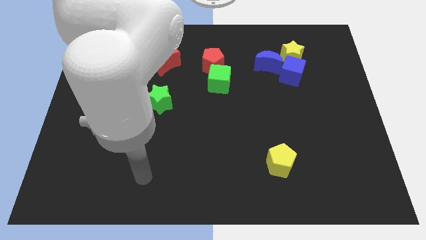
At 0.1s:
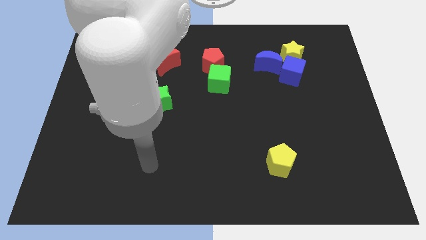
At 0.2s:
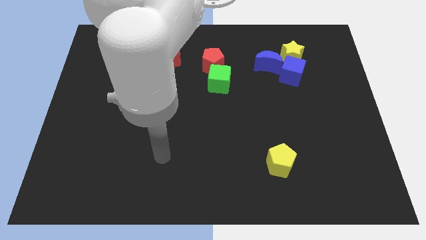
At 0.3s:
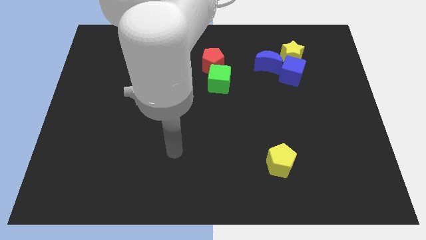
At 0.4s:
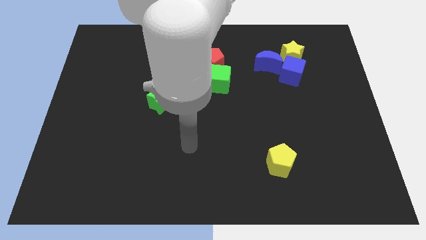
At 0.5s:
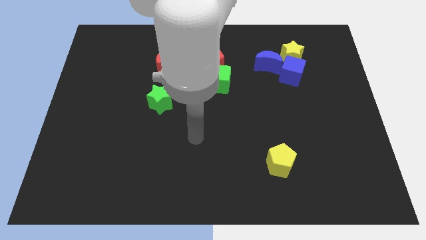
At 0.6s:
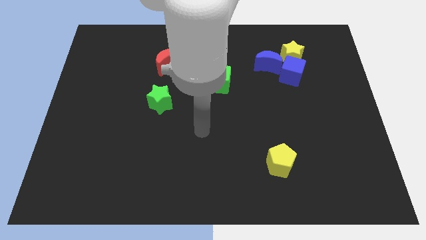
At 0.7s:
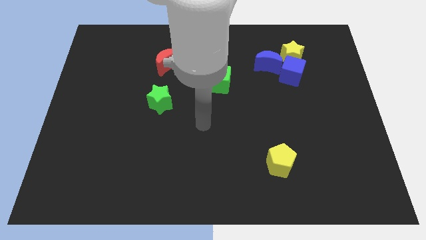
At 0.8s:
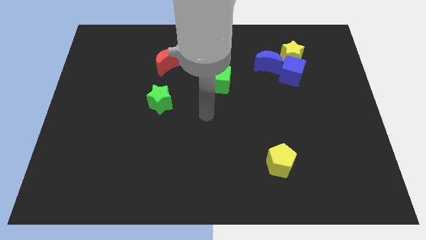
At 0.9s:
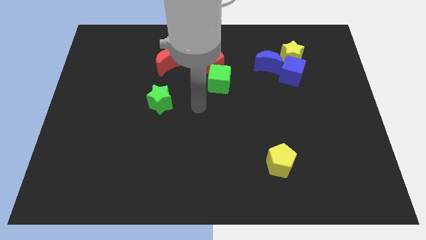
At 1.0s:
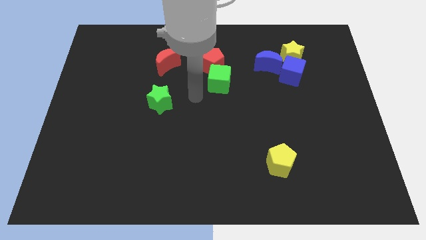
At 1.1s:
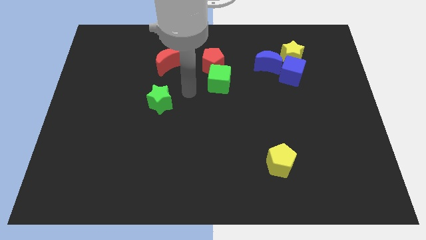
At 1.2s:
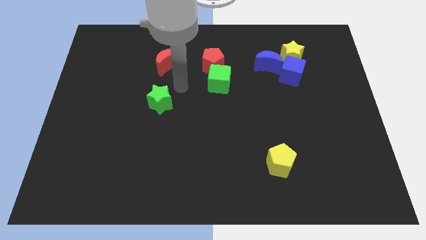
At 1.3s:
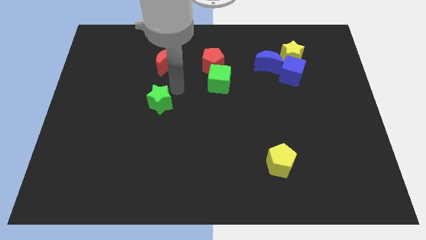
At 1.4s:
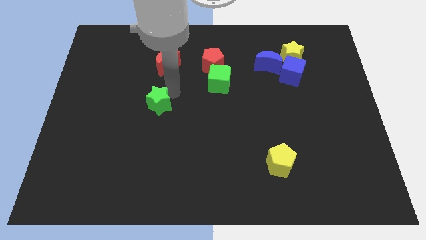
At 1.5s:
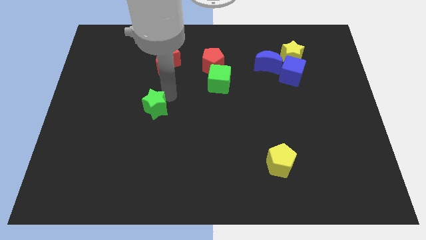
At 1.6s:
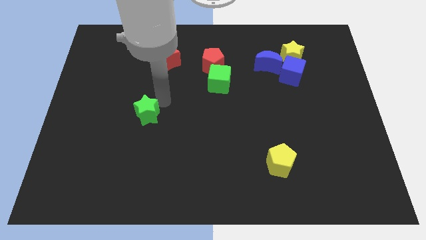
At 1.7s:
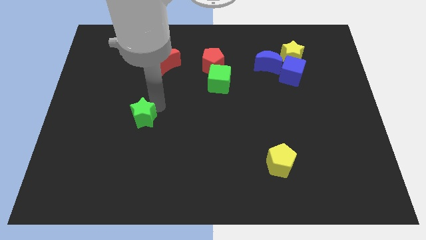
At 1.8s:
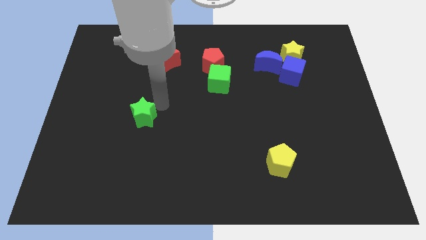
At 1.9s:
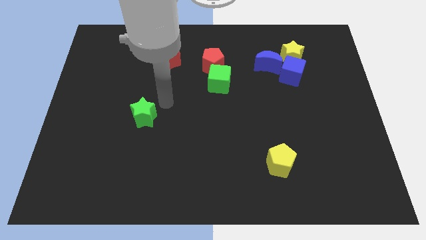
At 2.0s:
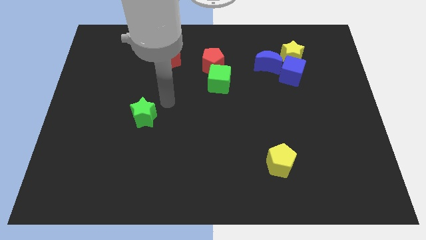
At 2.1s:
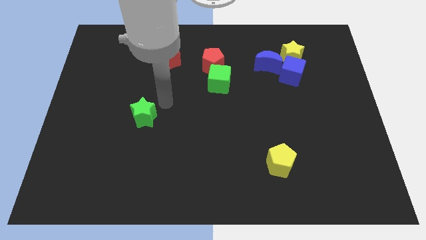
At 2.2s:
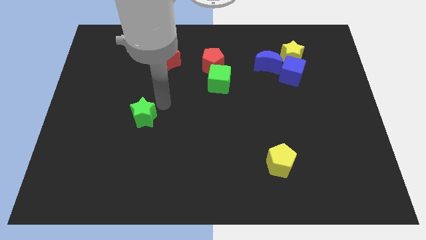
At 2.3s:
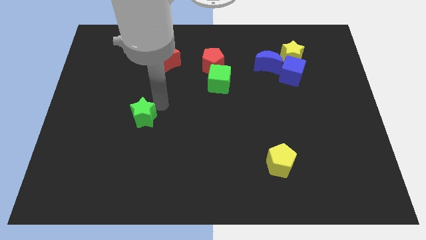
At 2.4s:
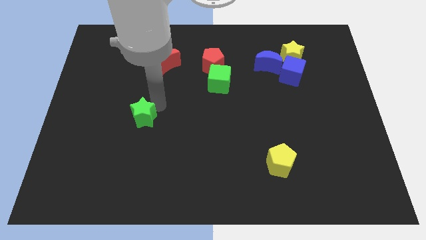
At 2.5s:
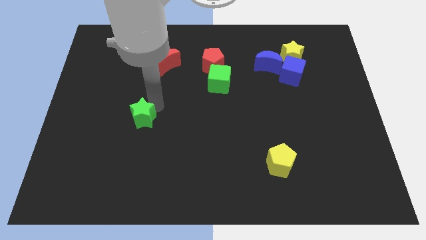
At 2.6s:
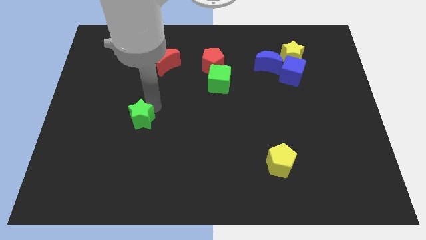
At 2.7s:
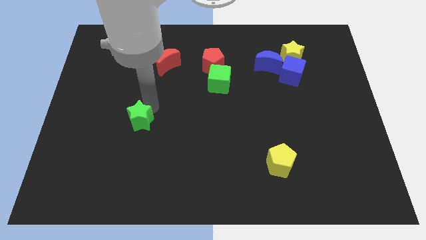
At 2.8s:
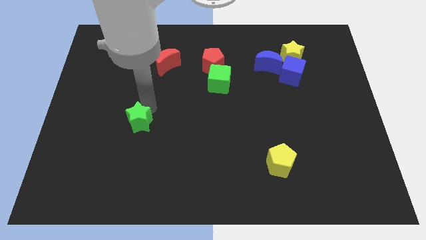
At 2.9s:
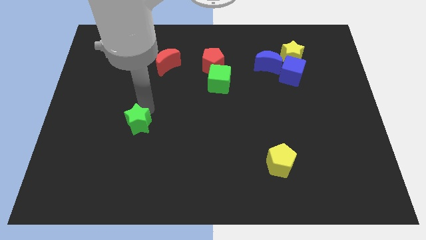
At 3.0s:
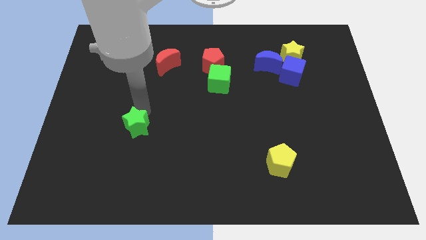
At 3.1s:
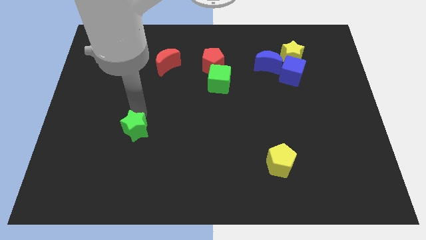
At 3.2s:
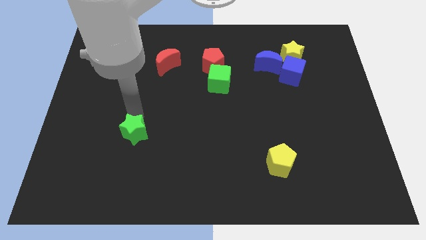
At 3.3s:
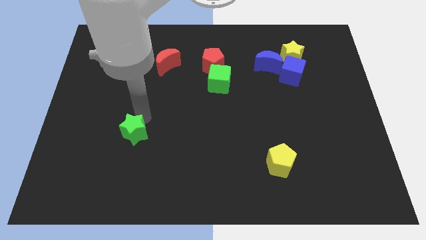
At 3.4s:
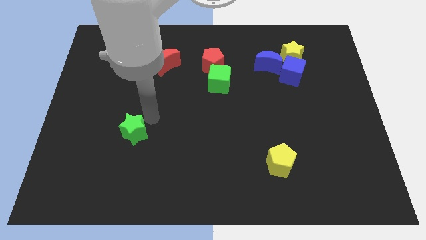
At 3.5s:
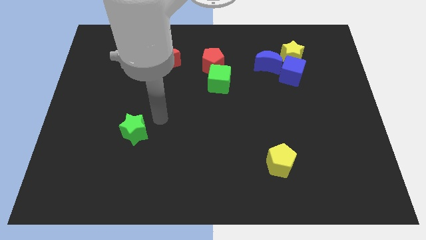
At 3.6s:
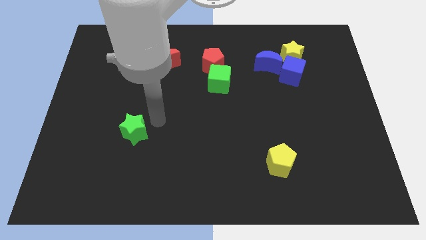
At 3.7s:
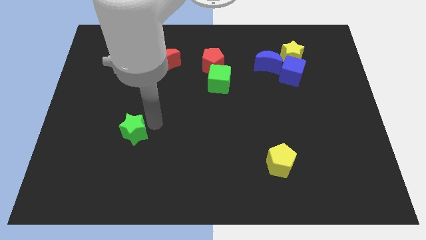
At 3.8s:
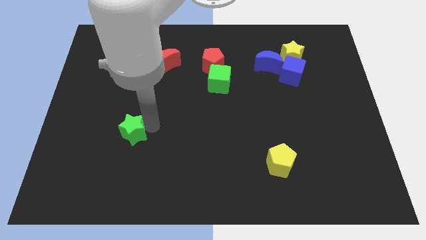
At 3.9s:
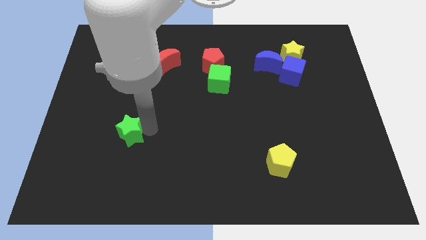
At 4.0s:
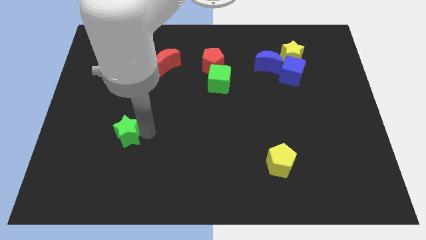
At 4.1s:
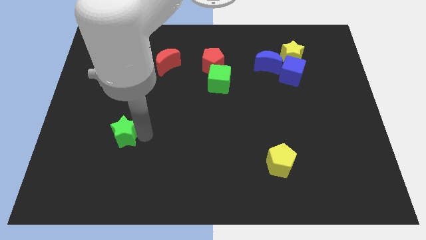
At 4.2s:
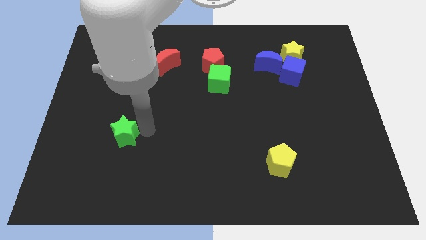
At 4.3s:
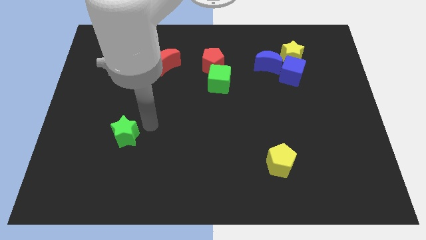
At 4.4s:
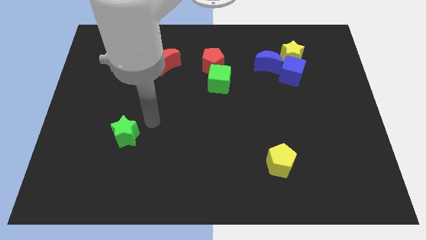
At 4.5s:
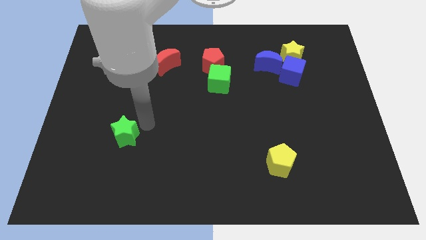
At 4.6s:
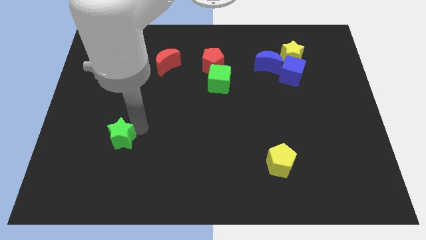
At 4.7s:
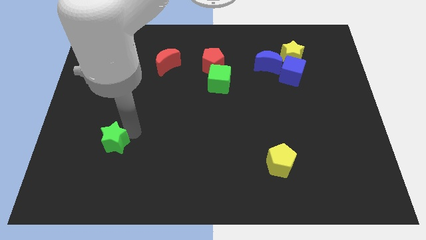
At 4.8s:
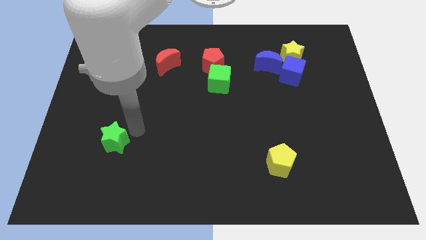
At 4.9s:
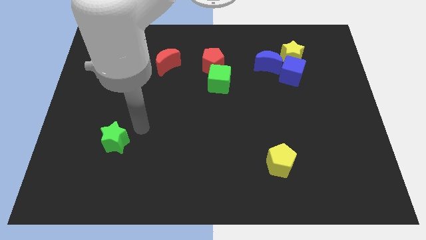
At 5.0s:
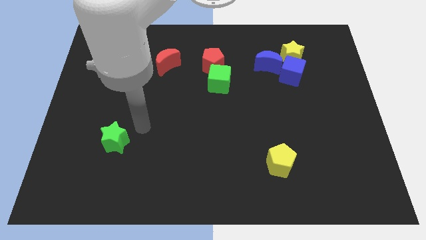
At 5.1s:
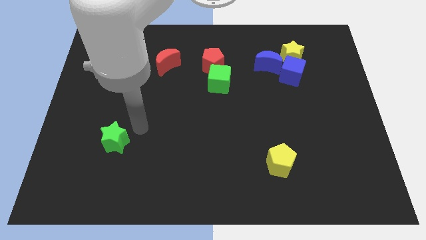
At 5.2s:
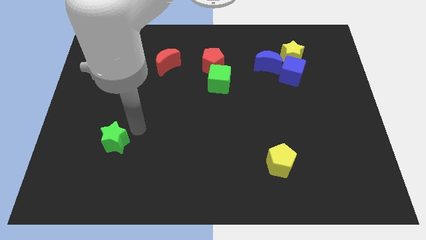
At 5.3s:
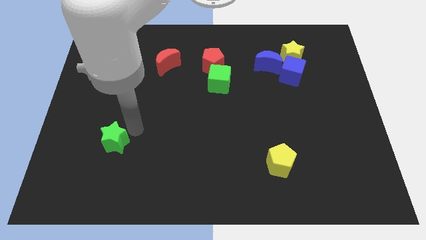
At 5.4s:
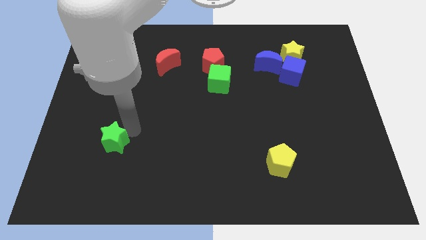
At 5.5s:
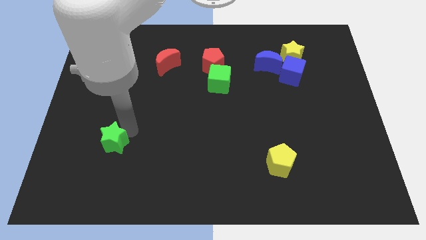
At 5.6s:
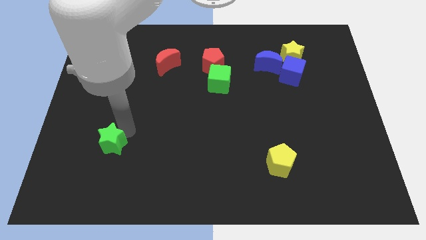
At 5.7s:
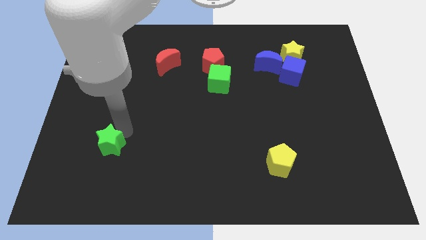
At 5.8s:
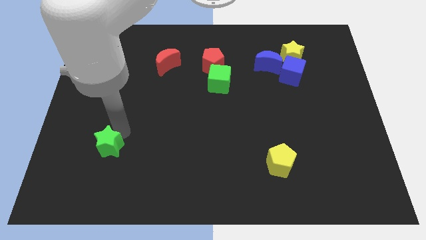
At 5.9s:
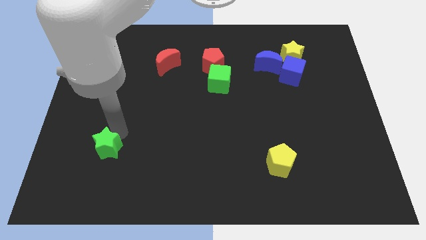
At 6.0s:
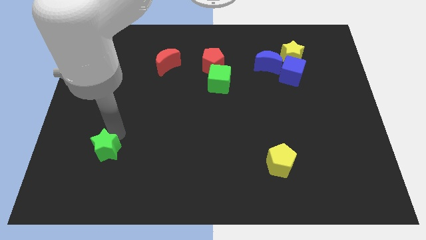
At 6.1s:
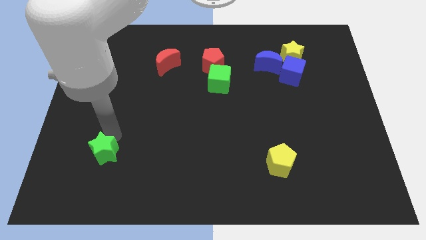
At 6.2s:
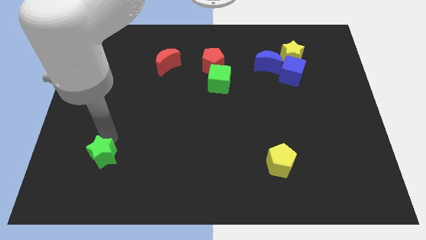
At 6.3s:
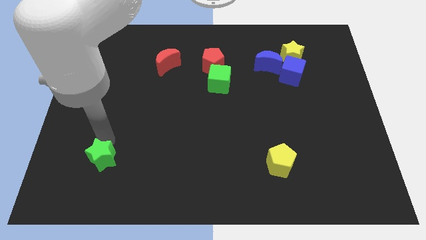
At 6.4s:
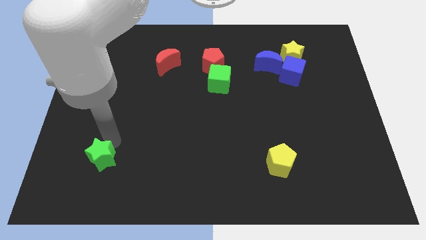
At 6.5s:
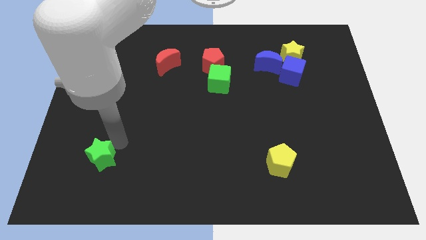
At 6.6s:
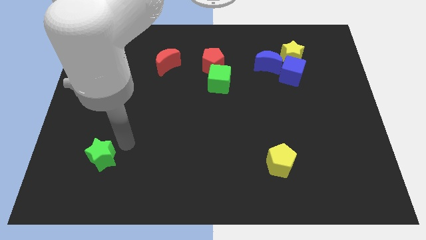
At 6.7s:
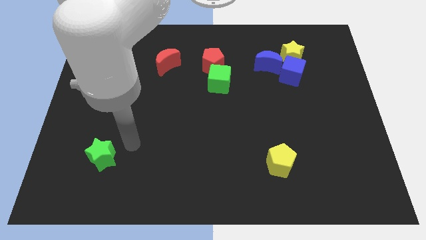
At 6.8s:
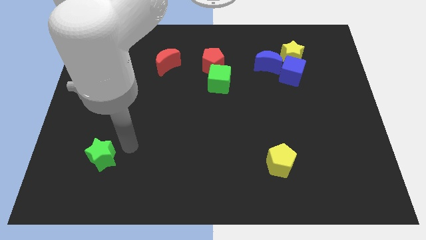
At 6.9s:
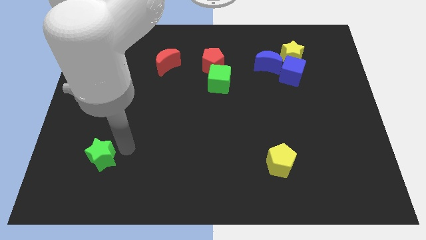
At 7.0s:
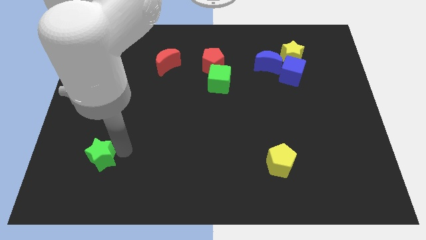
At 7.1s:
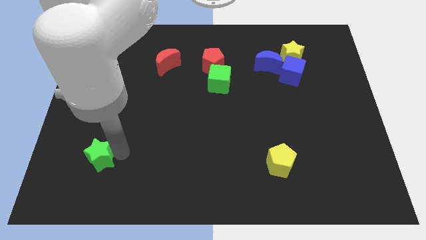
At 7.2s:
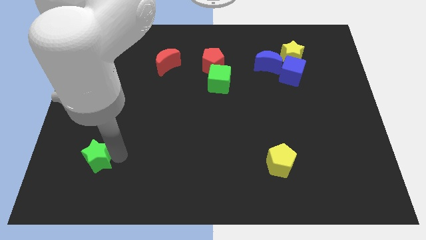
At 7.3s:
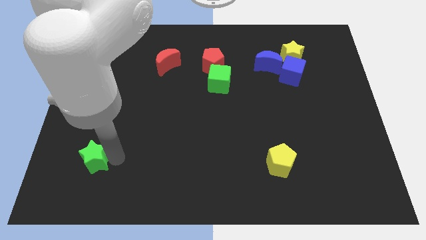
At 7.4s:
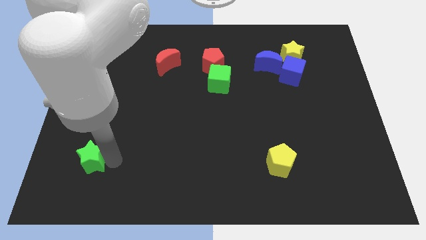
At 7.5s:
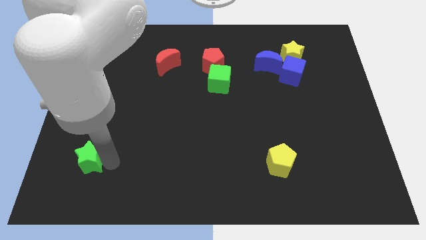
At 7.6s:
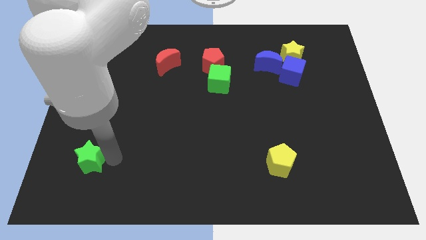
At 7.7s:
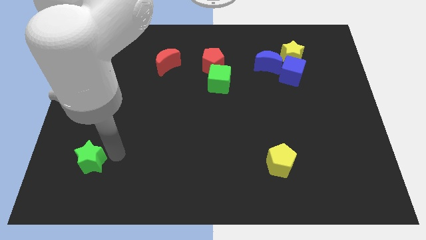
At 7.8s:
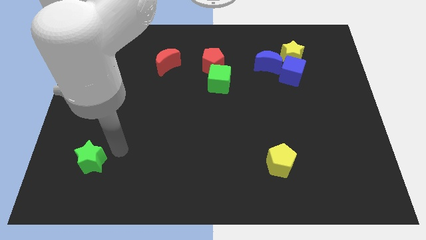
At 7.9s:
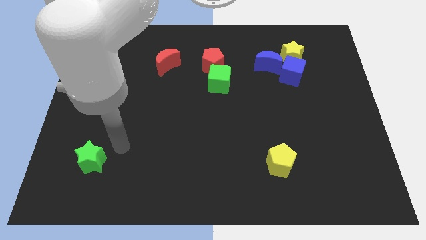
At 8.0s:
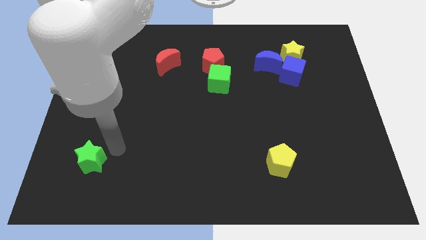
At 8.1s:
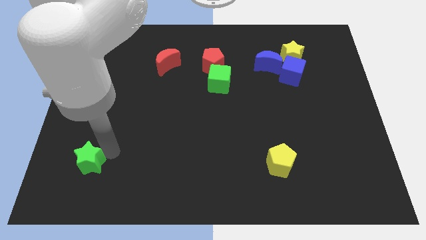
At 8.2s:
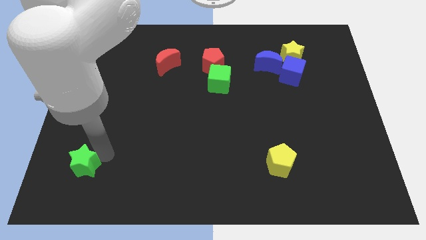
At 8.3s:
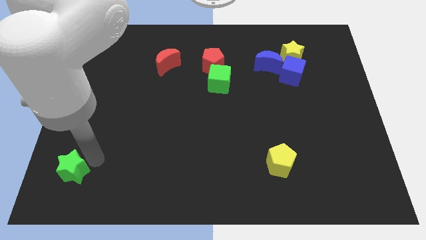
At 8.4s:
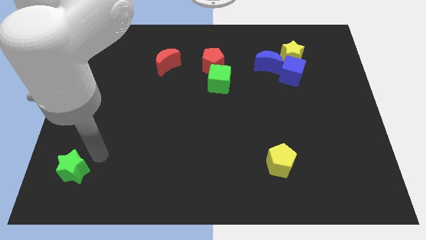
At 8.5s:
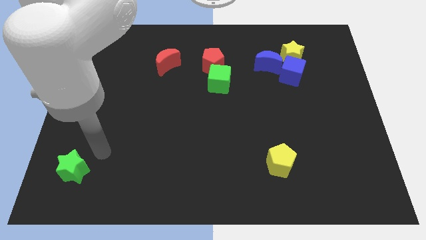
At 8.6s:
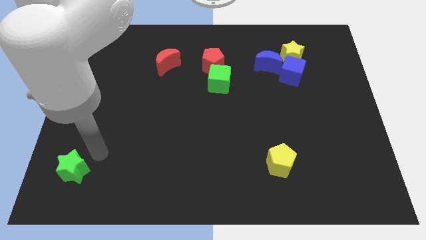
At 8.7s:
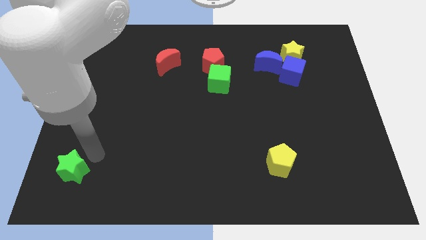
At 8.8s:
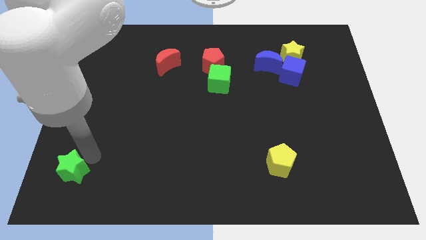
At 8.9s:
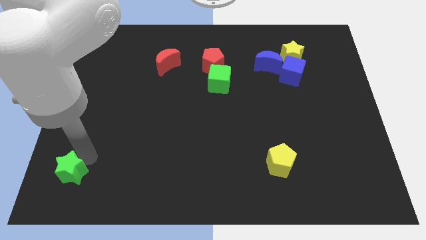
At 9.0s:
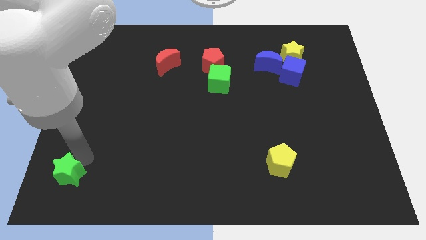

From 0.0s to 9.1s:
move the green star to the bottom left of the board
